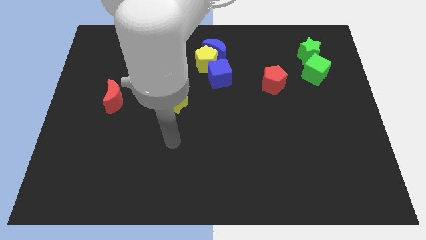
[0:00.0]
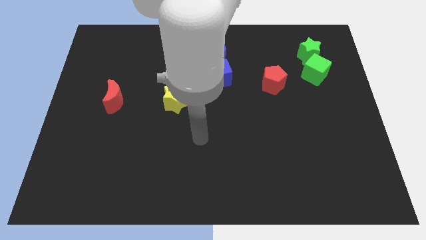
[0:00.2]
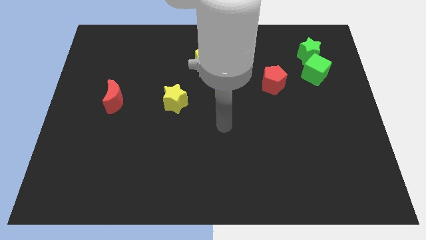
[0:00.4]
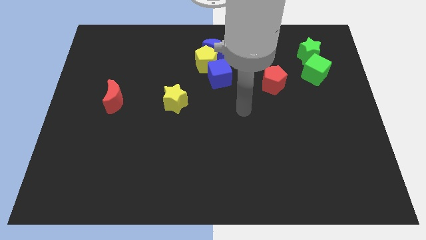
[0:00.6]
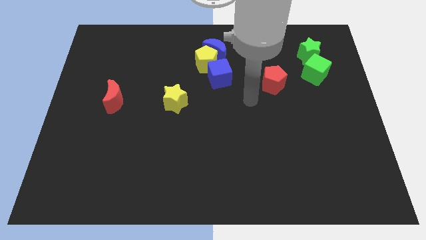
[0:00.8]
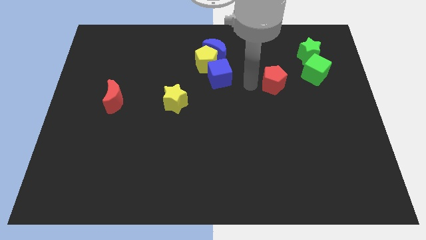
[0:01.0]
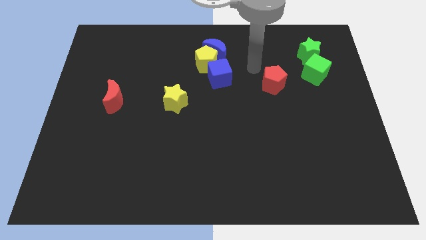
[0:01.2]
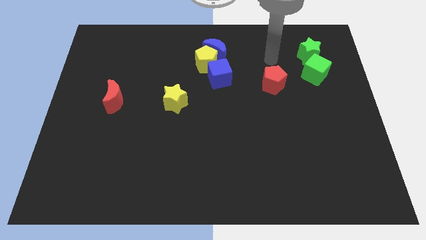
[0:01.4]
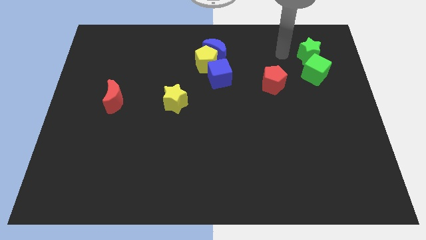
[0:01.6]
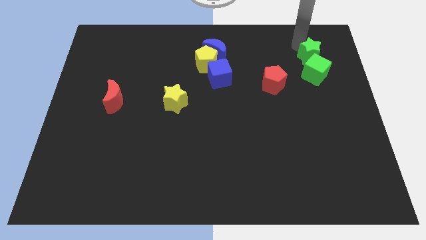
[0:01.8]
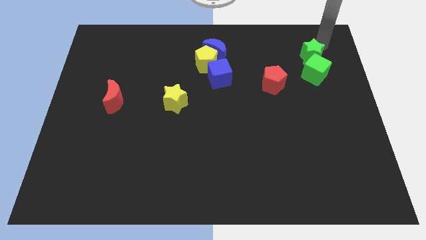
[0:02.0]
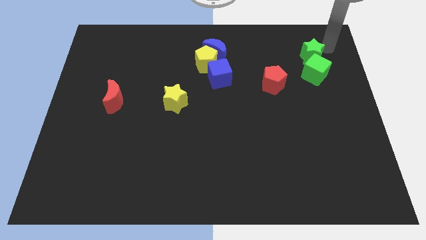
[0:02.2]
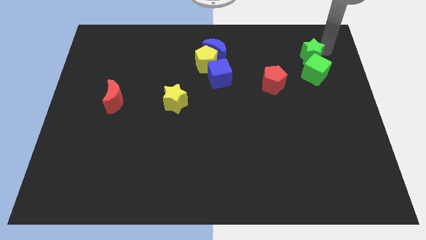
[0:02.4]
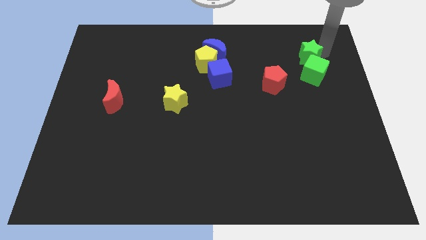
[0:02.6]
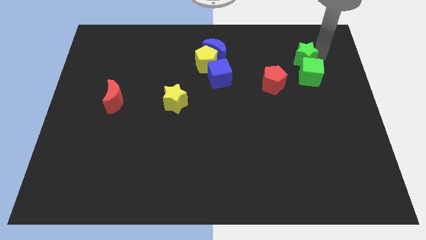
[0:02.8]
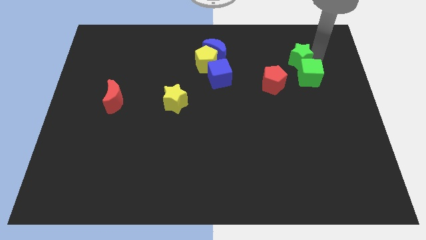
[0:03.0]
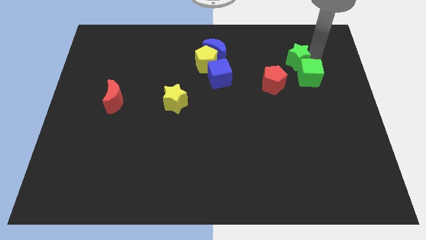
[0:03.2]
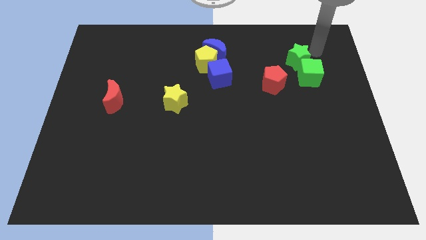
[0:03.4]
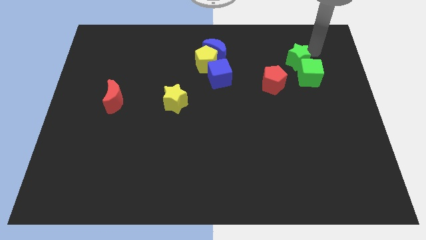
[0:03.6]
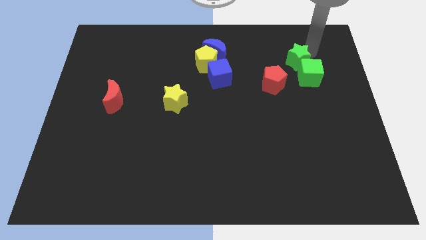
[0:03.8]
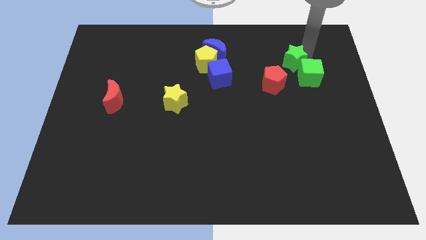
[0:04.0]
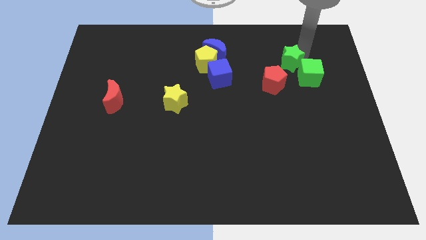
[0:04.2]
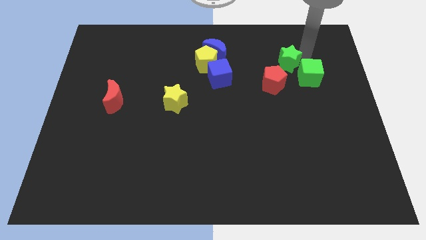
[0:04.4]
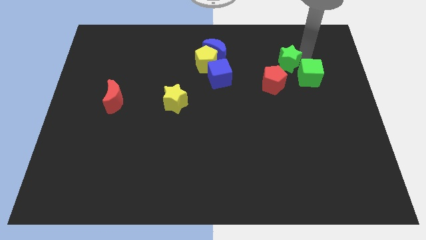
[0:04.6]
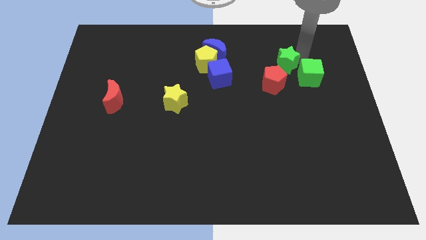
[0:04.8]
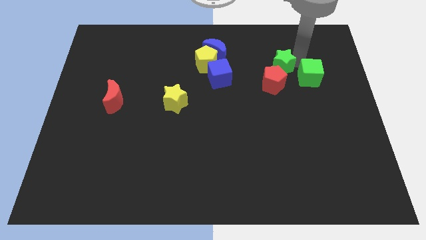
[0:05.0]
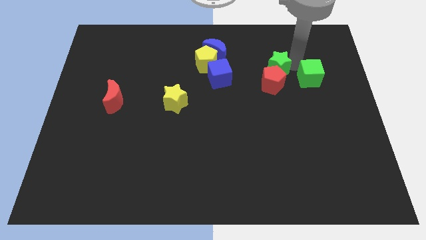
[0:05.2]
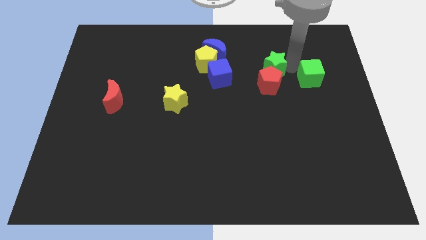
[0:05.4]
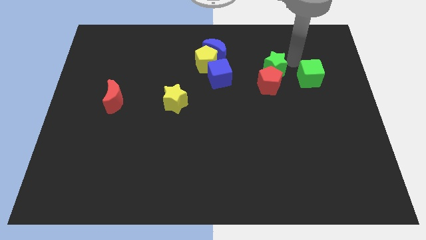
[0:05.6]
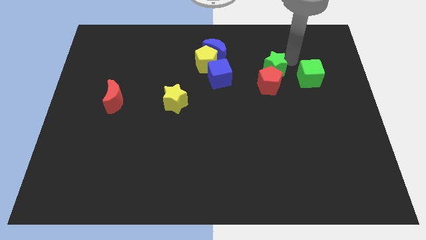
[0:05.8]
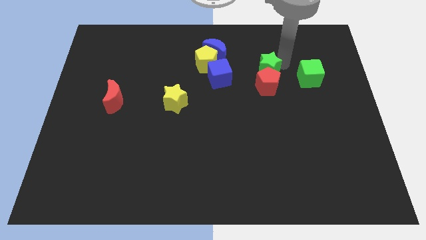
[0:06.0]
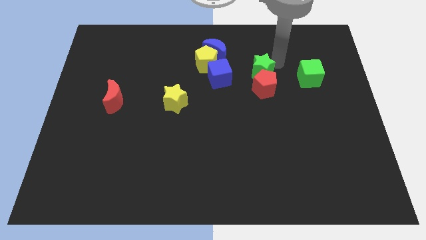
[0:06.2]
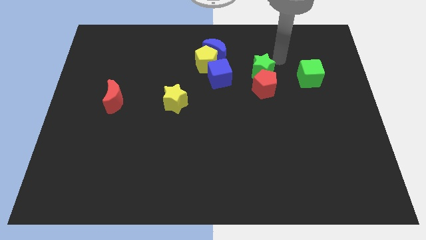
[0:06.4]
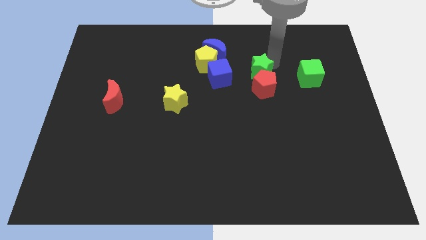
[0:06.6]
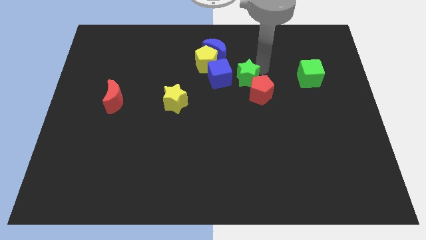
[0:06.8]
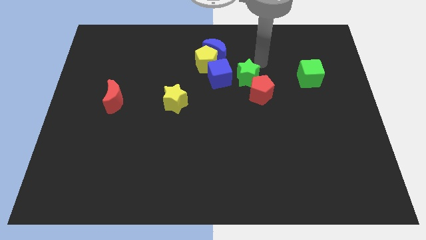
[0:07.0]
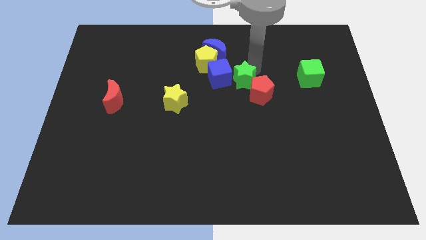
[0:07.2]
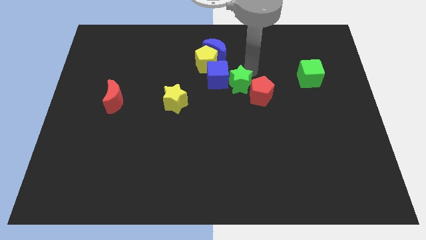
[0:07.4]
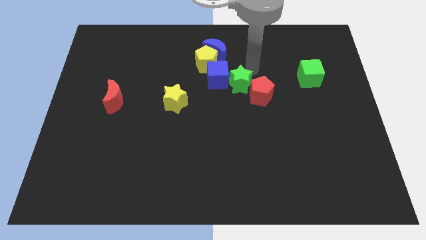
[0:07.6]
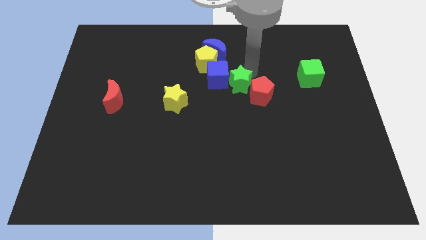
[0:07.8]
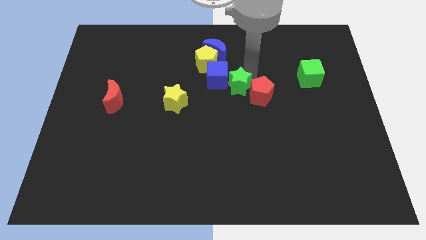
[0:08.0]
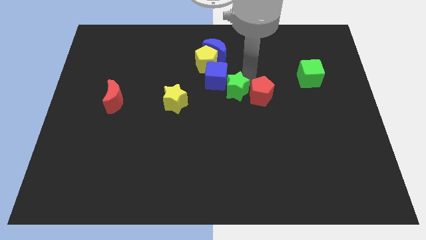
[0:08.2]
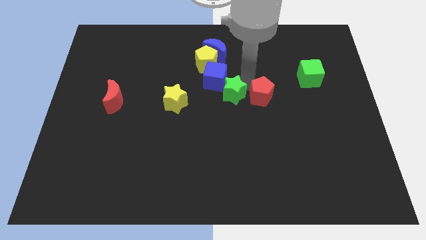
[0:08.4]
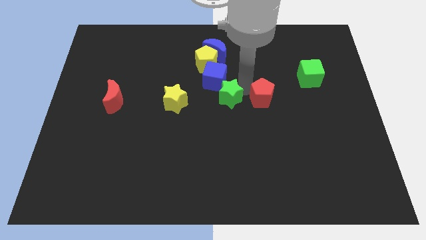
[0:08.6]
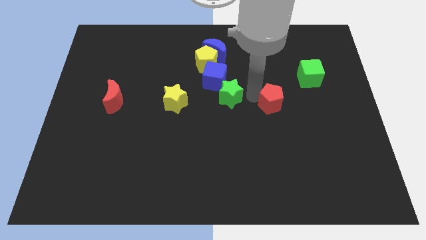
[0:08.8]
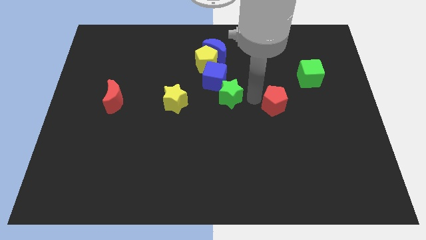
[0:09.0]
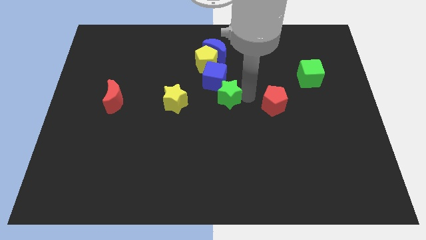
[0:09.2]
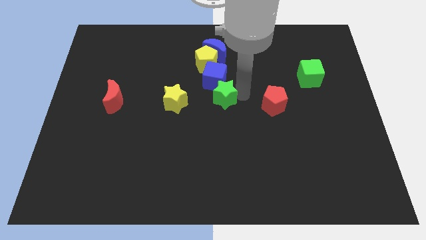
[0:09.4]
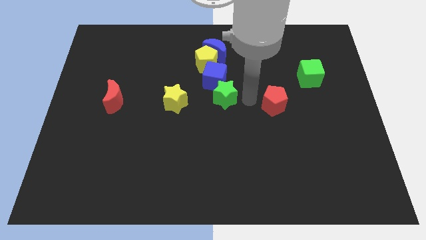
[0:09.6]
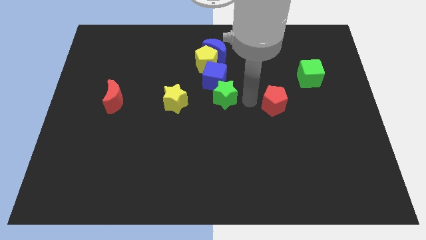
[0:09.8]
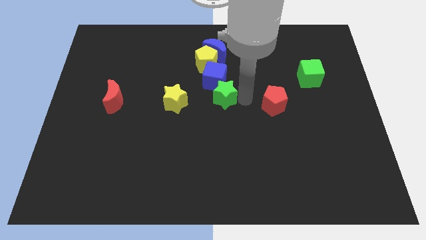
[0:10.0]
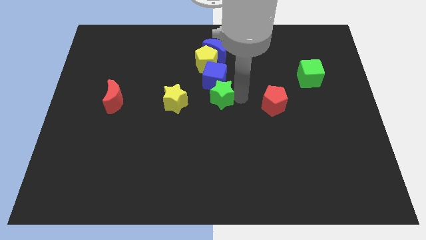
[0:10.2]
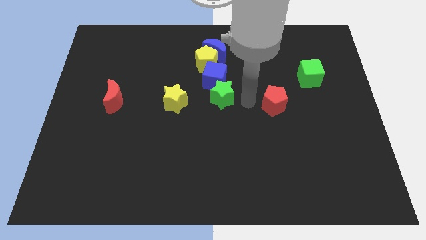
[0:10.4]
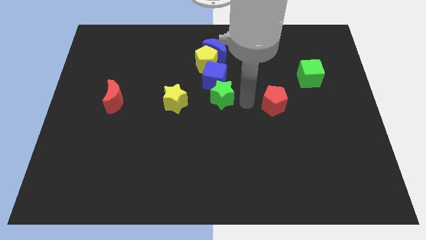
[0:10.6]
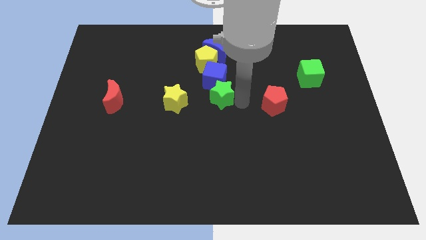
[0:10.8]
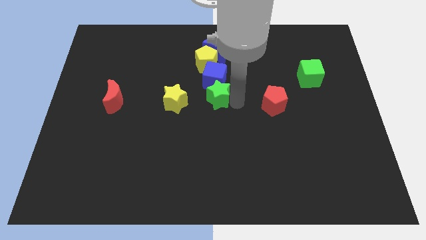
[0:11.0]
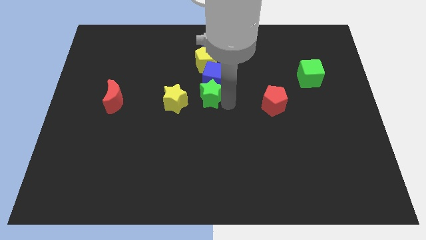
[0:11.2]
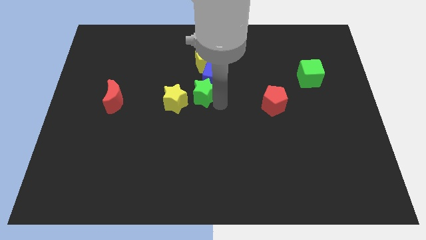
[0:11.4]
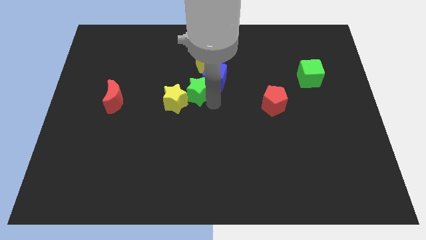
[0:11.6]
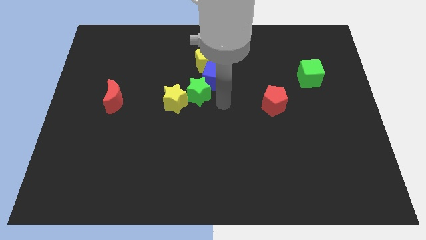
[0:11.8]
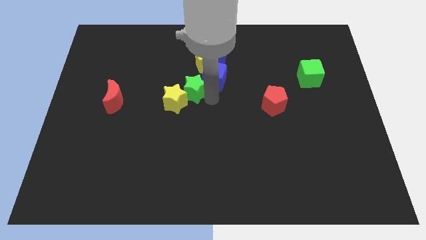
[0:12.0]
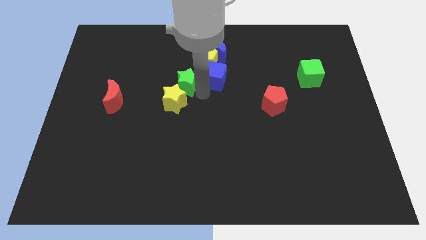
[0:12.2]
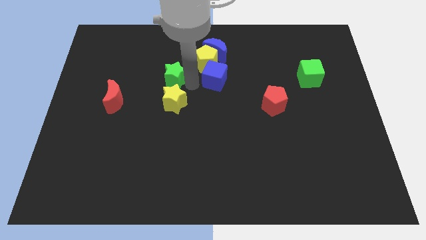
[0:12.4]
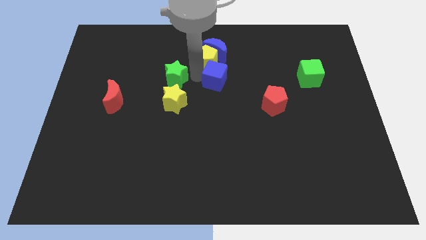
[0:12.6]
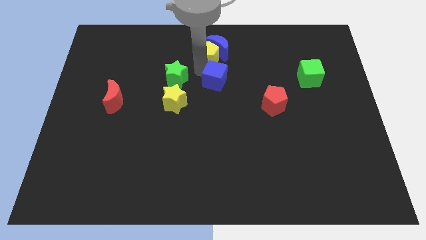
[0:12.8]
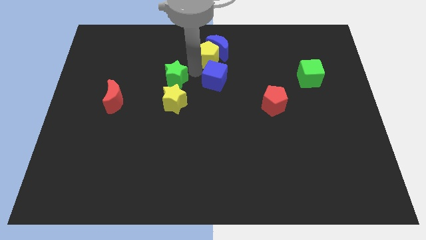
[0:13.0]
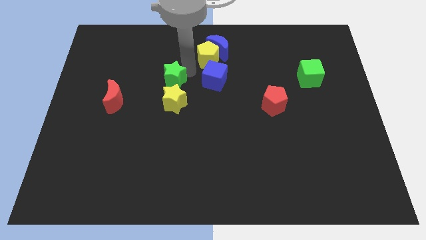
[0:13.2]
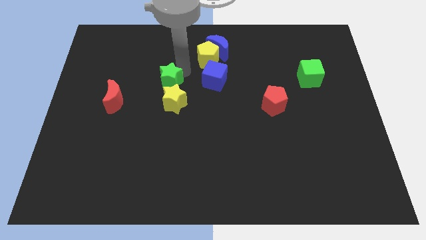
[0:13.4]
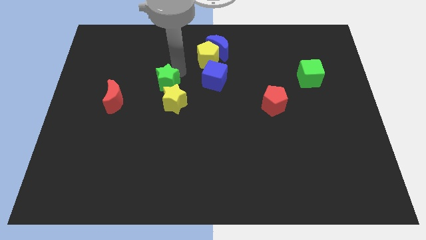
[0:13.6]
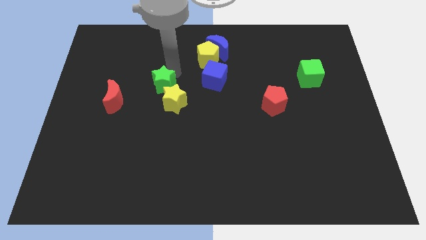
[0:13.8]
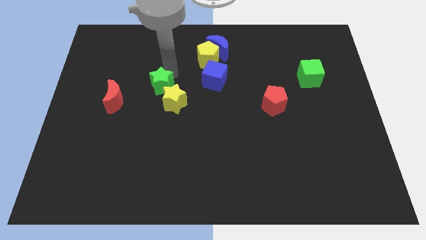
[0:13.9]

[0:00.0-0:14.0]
slide the green star to the top right of the red moon
